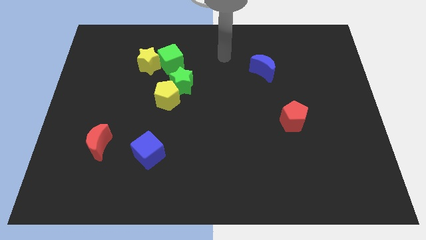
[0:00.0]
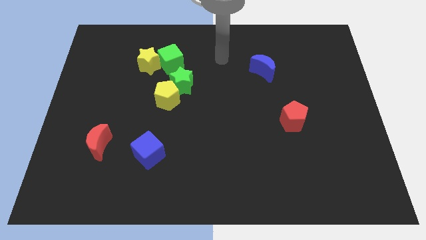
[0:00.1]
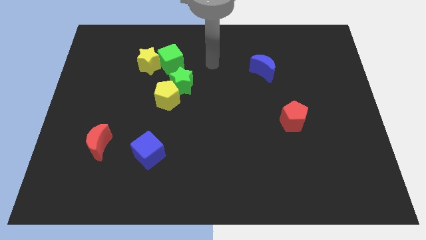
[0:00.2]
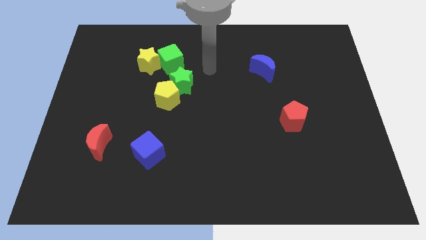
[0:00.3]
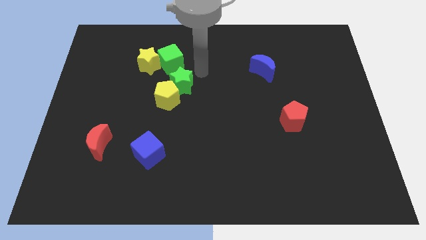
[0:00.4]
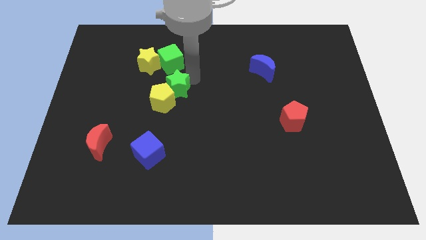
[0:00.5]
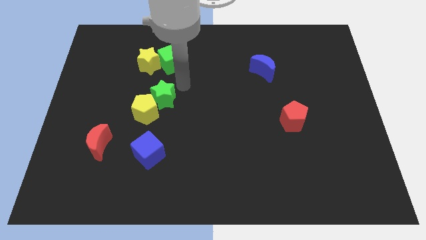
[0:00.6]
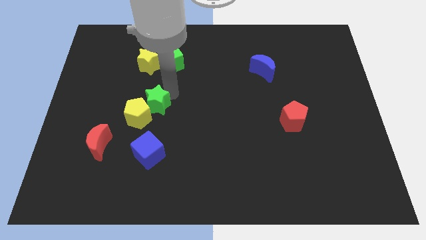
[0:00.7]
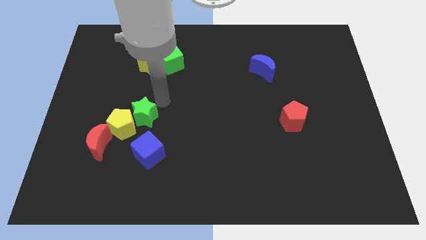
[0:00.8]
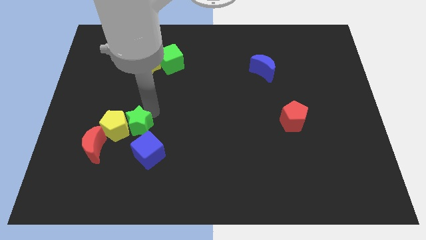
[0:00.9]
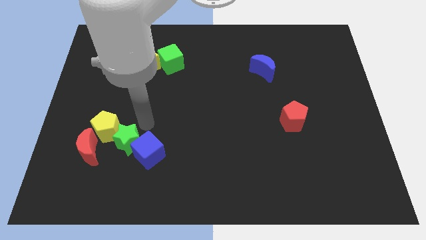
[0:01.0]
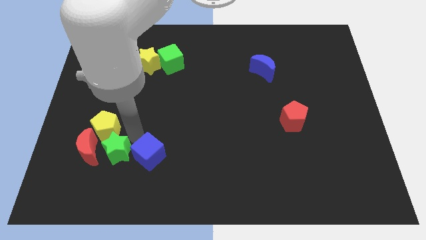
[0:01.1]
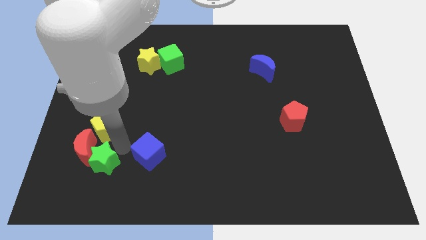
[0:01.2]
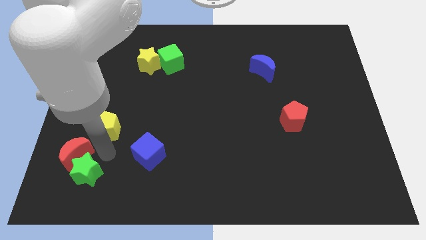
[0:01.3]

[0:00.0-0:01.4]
separate the yellow pentagon from the green star

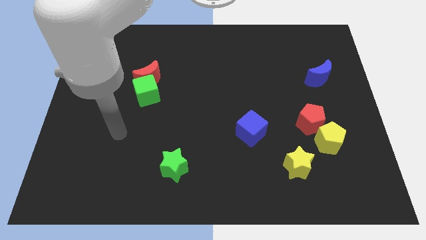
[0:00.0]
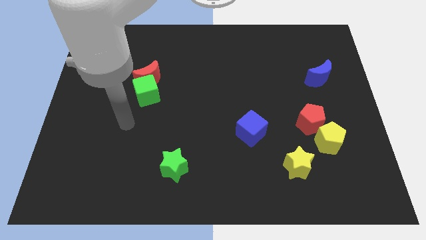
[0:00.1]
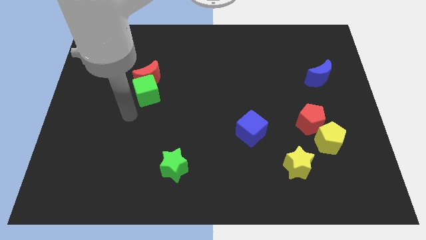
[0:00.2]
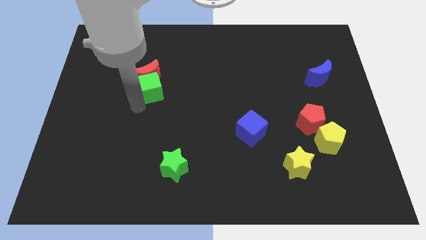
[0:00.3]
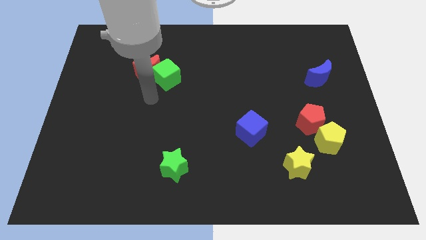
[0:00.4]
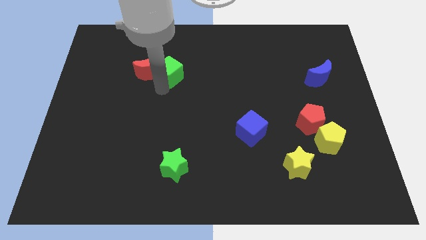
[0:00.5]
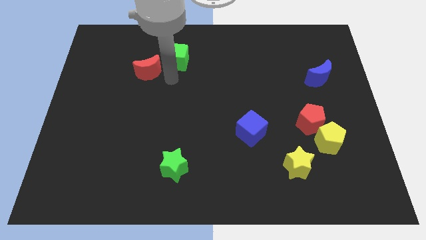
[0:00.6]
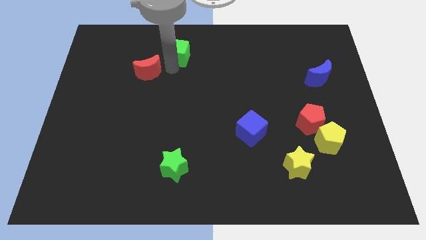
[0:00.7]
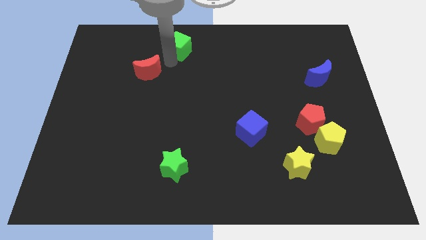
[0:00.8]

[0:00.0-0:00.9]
move the red moon away from the green cube

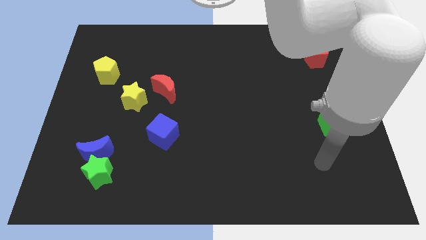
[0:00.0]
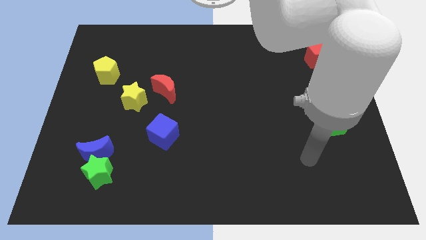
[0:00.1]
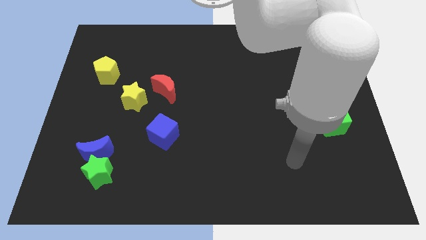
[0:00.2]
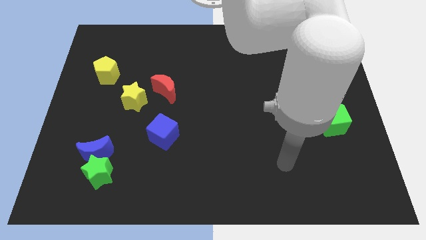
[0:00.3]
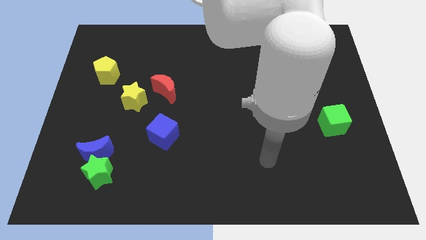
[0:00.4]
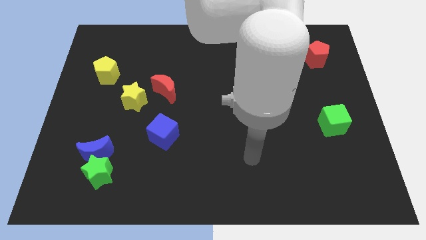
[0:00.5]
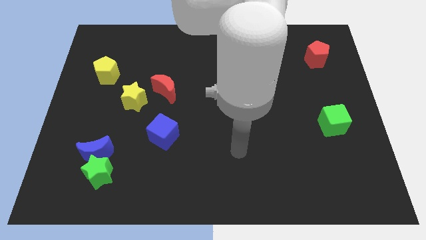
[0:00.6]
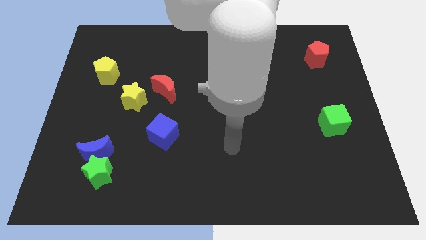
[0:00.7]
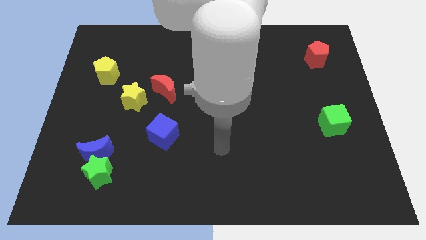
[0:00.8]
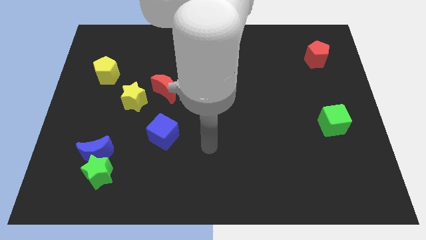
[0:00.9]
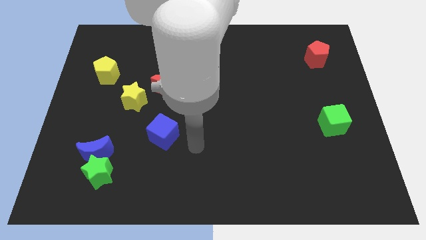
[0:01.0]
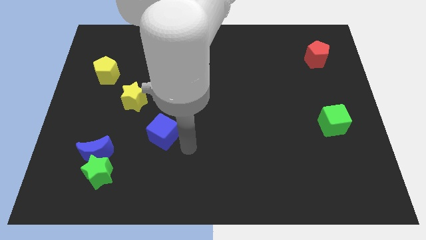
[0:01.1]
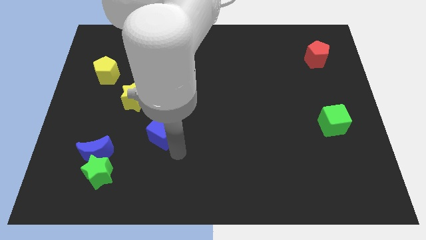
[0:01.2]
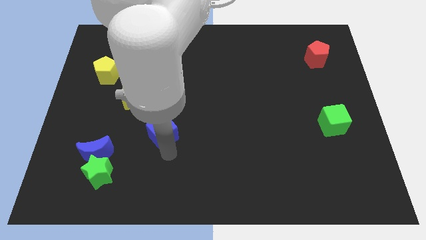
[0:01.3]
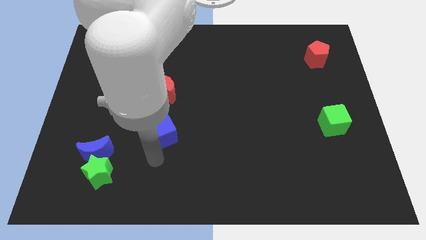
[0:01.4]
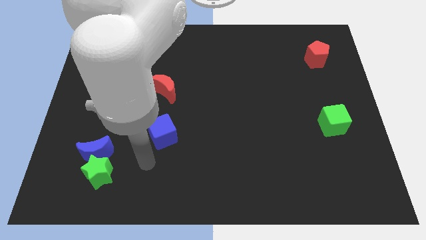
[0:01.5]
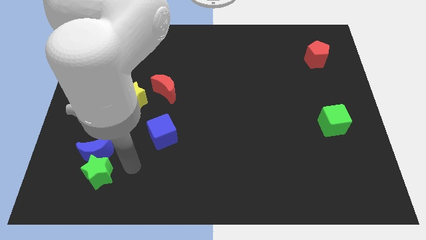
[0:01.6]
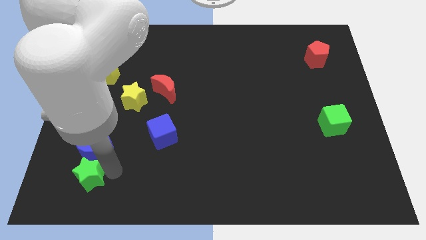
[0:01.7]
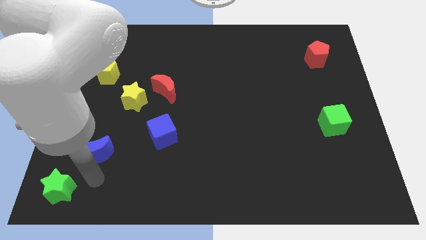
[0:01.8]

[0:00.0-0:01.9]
separate the blue moon from the green star

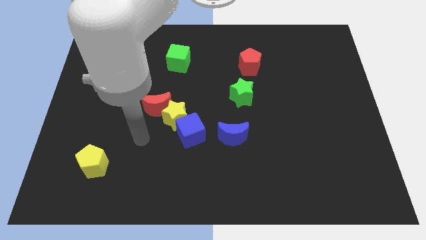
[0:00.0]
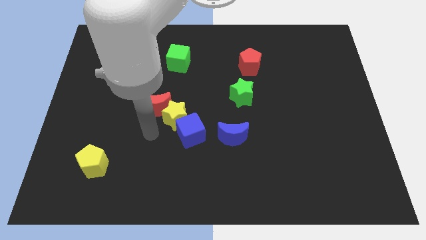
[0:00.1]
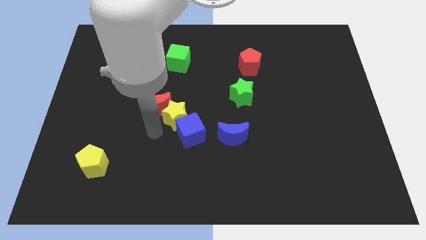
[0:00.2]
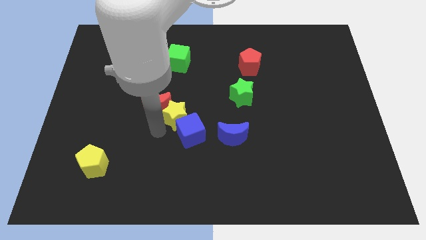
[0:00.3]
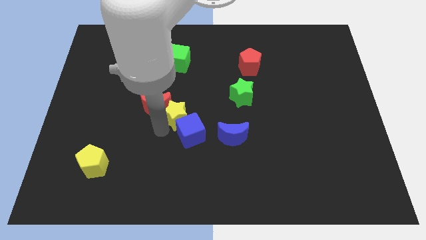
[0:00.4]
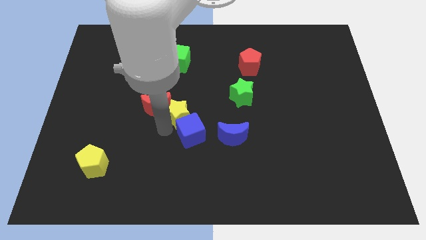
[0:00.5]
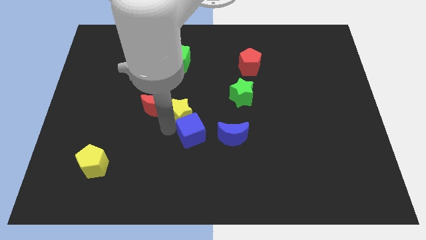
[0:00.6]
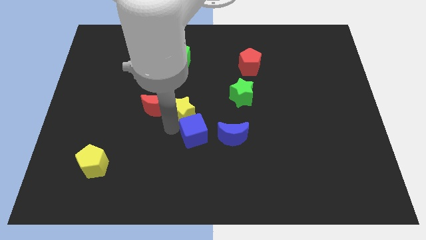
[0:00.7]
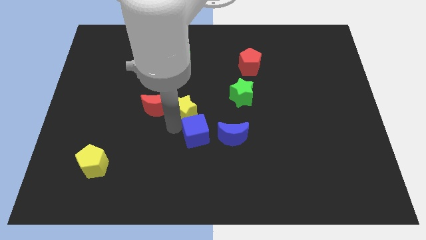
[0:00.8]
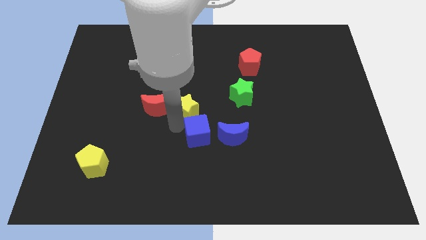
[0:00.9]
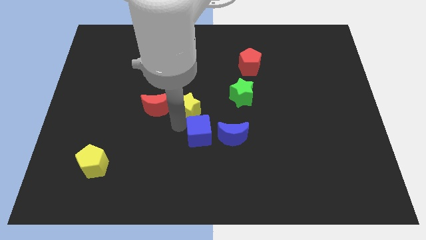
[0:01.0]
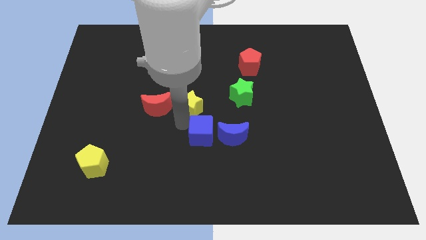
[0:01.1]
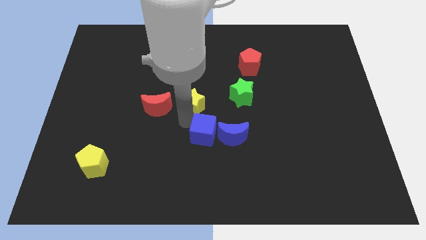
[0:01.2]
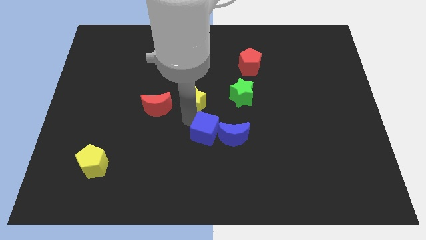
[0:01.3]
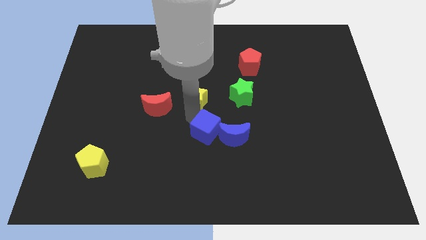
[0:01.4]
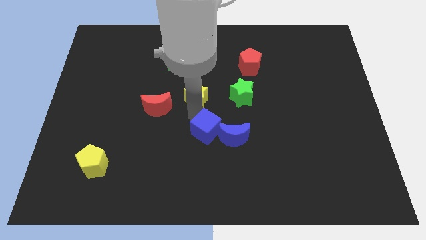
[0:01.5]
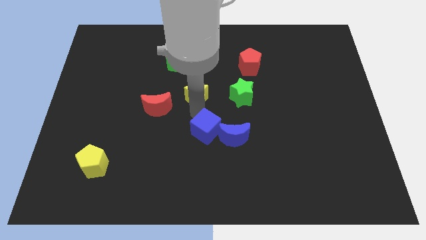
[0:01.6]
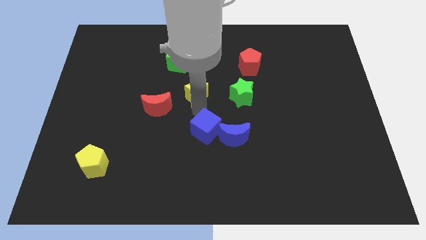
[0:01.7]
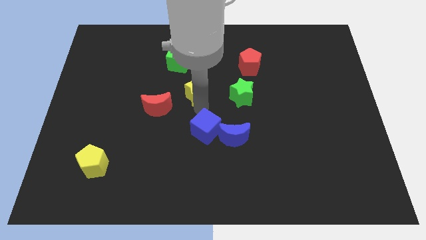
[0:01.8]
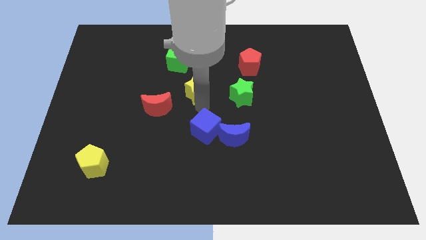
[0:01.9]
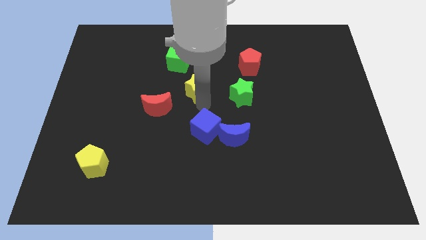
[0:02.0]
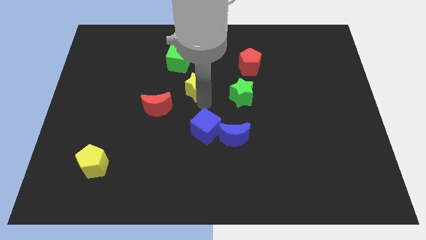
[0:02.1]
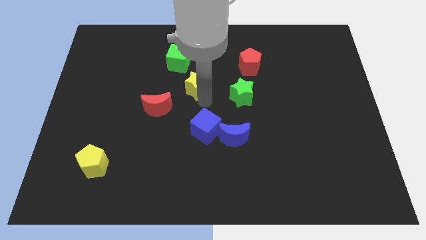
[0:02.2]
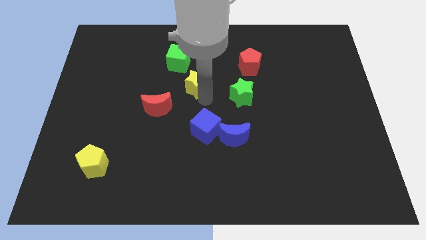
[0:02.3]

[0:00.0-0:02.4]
separate the yellow star from the blue cube and red moon

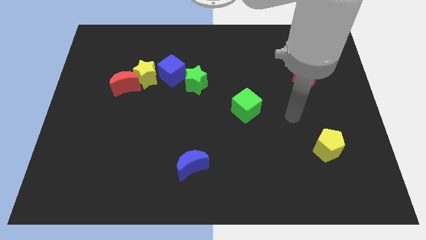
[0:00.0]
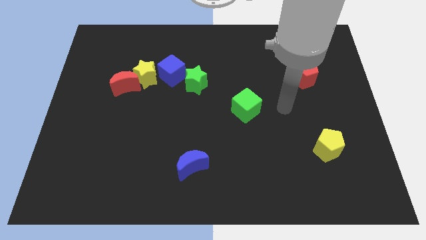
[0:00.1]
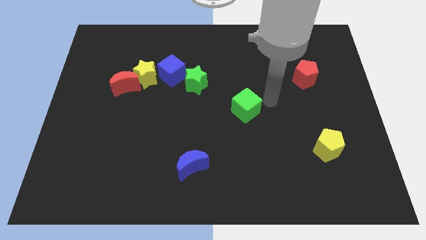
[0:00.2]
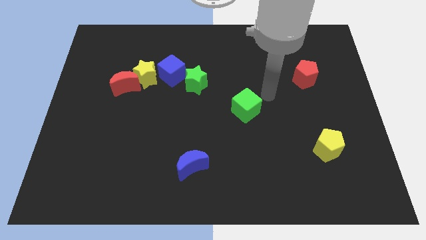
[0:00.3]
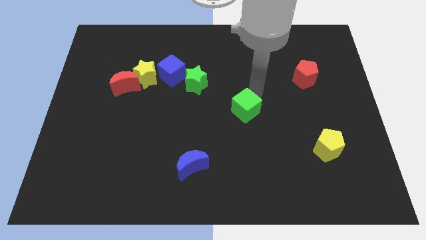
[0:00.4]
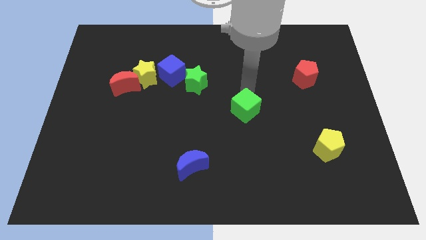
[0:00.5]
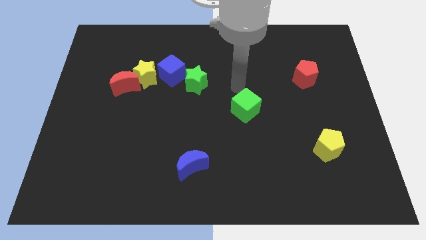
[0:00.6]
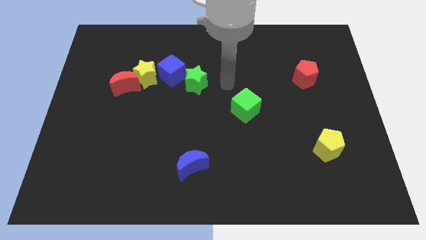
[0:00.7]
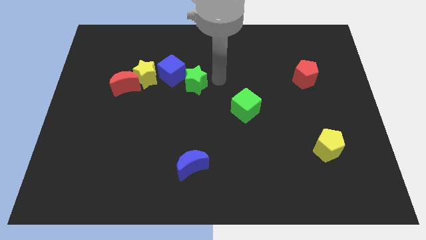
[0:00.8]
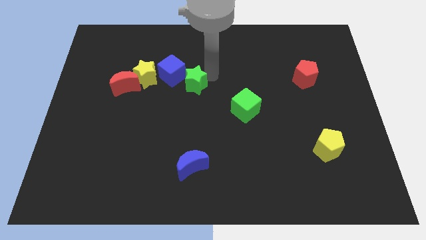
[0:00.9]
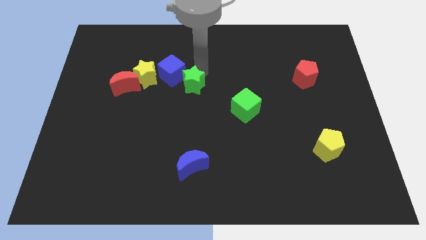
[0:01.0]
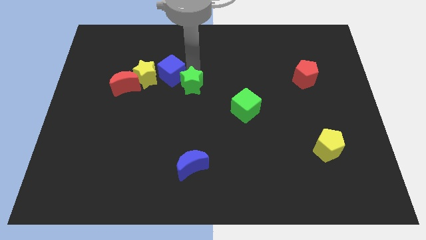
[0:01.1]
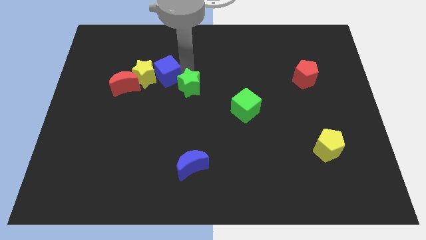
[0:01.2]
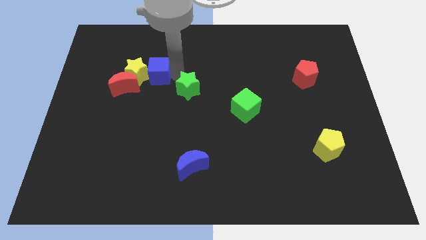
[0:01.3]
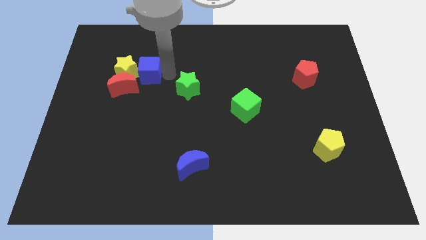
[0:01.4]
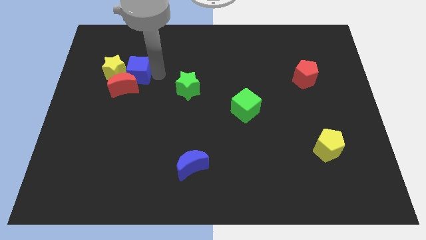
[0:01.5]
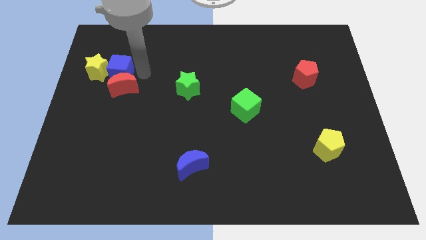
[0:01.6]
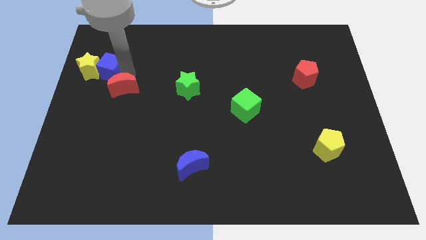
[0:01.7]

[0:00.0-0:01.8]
pull the red moon apart from the yellow star

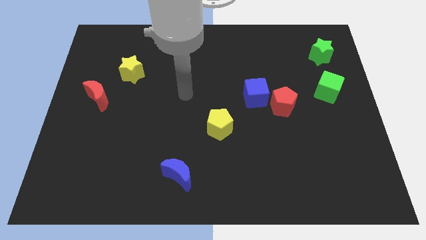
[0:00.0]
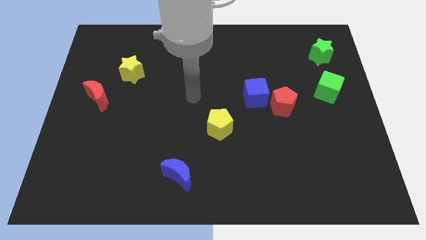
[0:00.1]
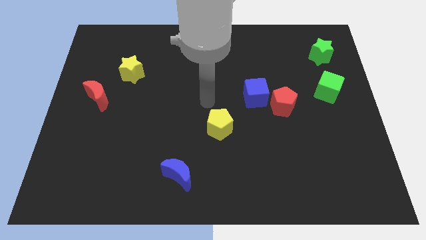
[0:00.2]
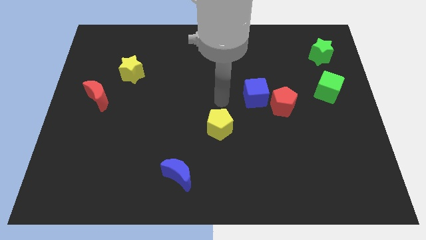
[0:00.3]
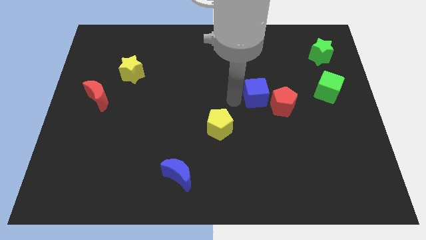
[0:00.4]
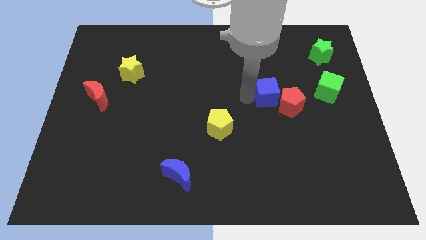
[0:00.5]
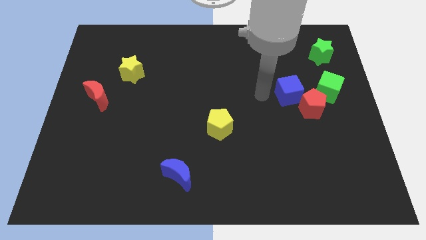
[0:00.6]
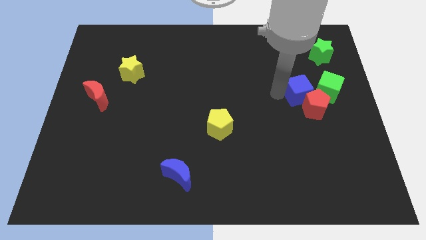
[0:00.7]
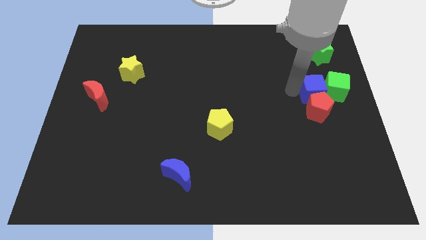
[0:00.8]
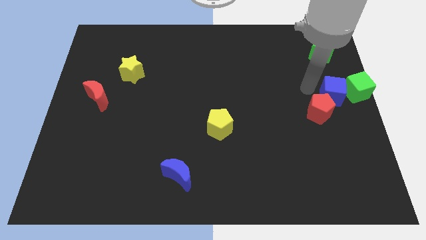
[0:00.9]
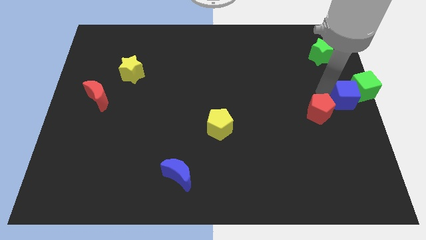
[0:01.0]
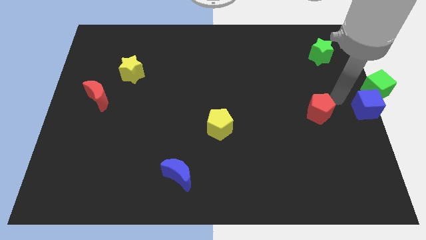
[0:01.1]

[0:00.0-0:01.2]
move the red pentagon away from the blue cube
